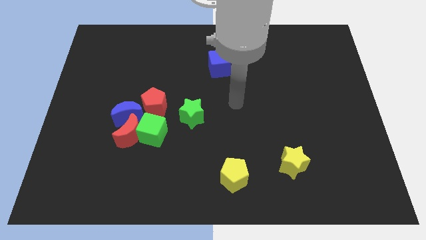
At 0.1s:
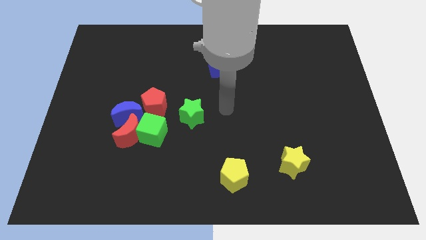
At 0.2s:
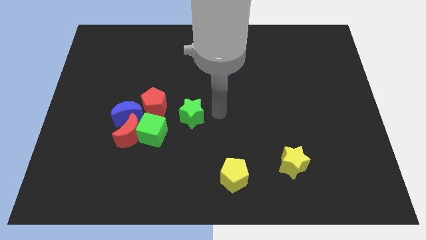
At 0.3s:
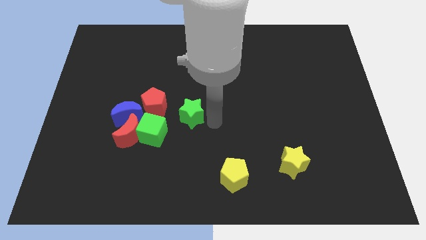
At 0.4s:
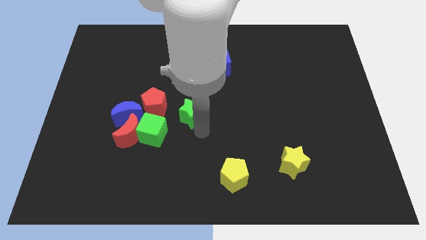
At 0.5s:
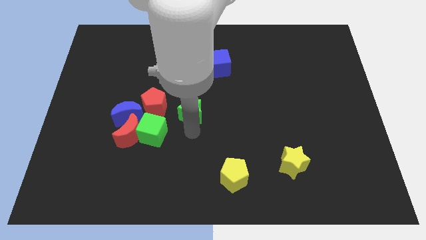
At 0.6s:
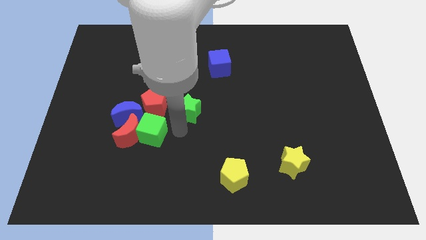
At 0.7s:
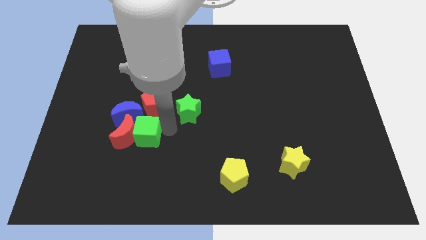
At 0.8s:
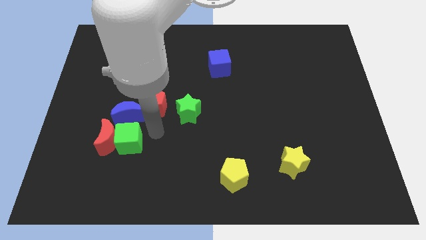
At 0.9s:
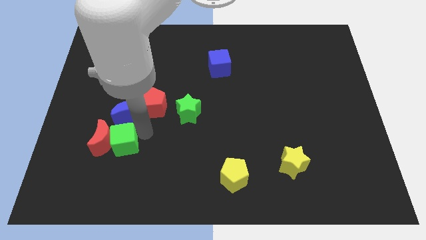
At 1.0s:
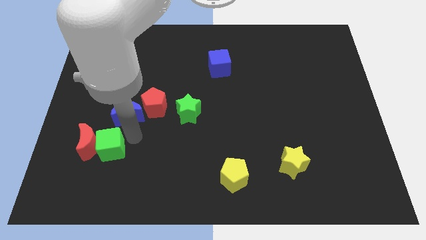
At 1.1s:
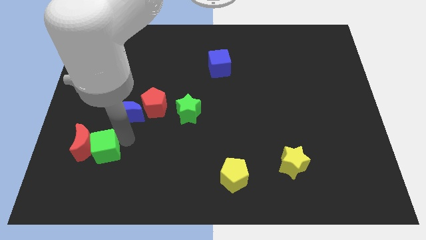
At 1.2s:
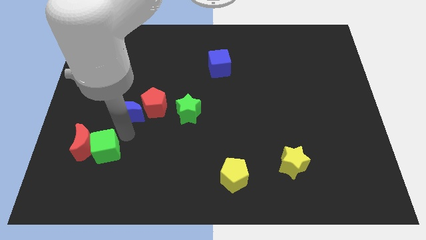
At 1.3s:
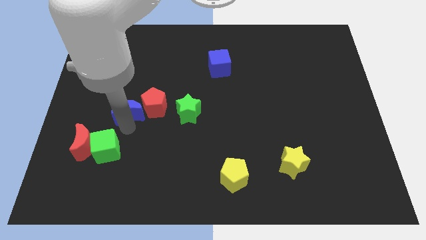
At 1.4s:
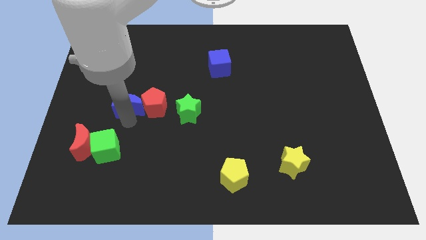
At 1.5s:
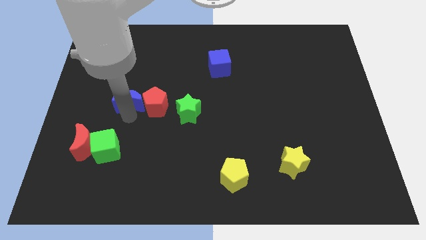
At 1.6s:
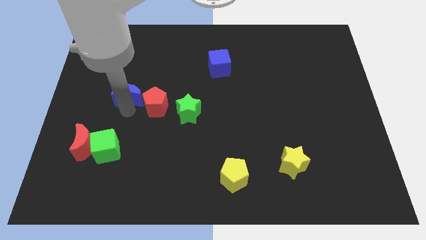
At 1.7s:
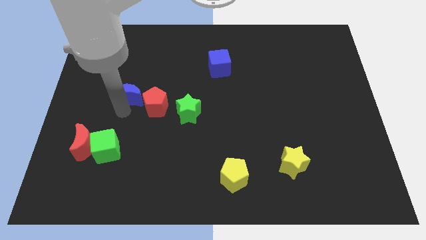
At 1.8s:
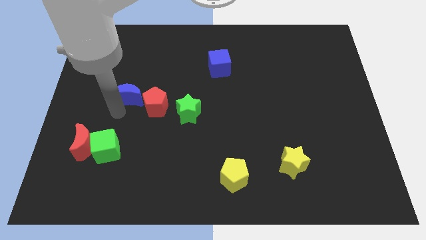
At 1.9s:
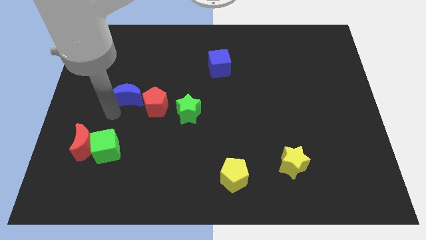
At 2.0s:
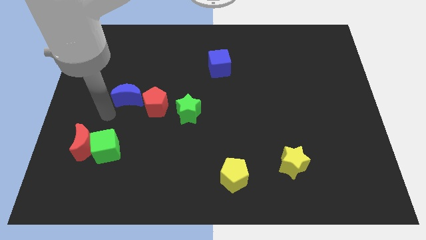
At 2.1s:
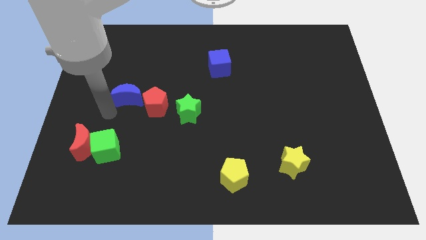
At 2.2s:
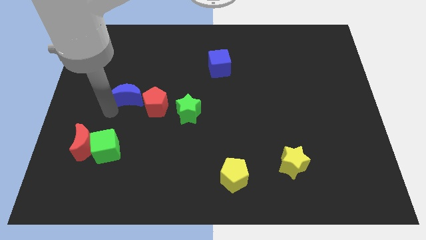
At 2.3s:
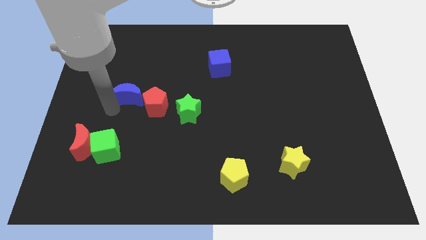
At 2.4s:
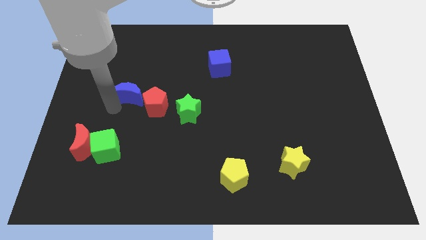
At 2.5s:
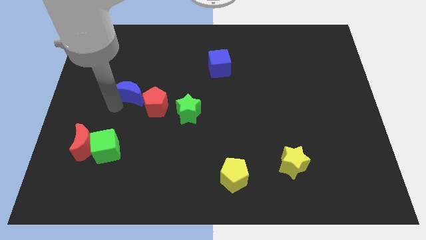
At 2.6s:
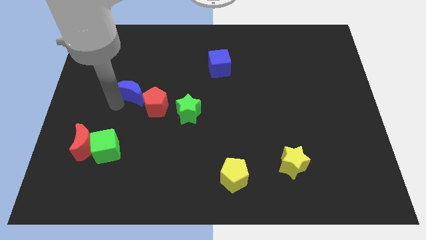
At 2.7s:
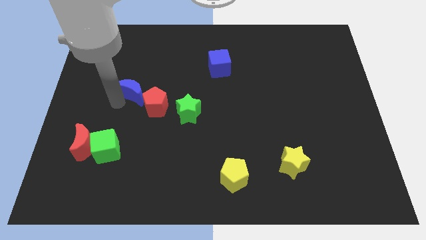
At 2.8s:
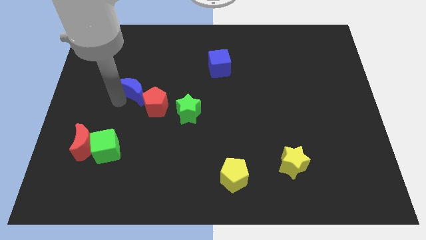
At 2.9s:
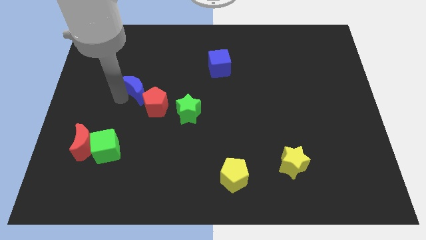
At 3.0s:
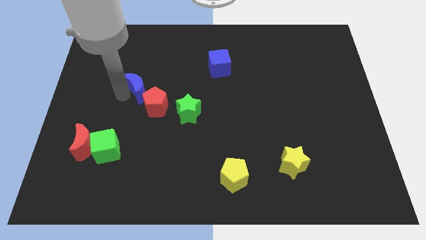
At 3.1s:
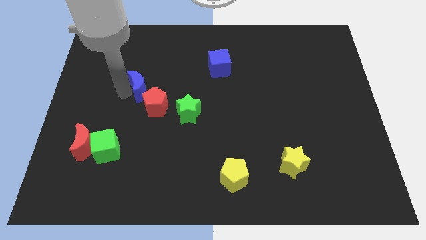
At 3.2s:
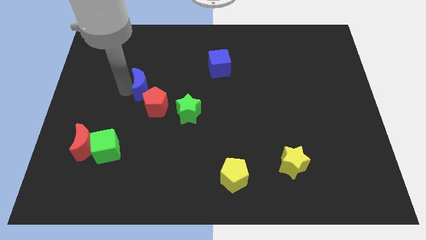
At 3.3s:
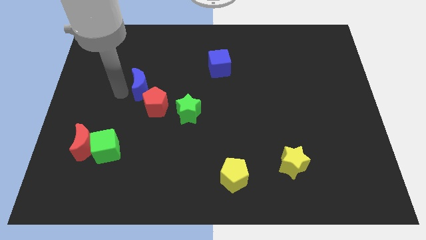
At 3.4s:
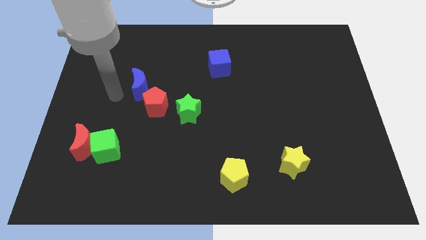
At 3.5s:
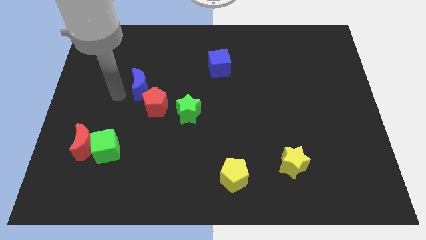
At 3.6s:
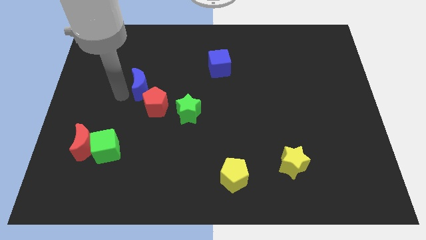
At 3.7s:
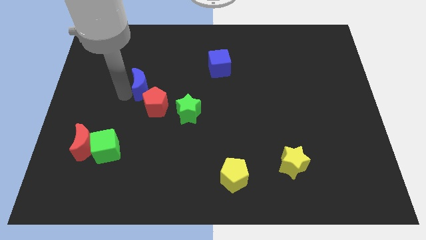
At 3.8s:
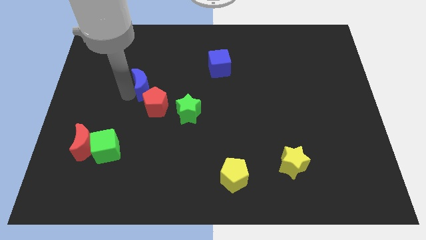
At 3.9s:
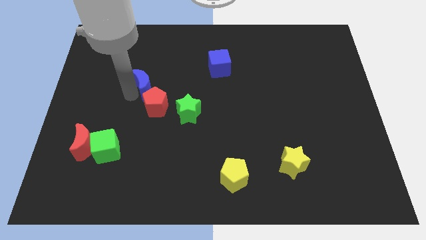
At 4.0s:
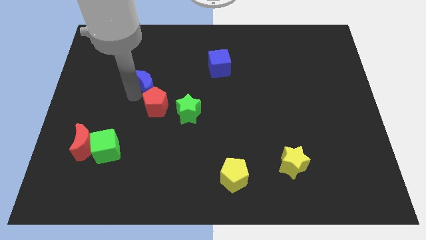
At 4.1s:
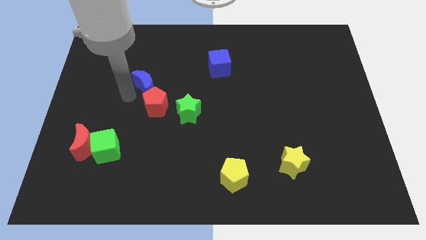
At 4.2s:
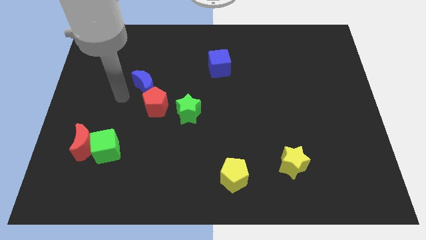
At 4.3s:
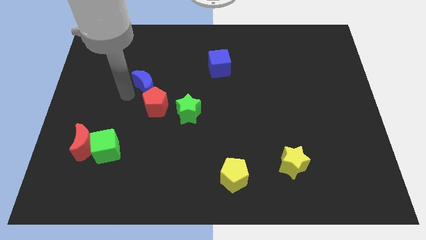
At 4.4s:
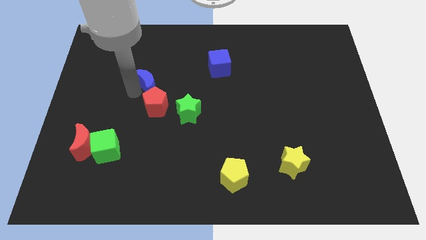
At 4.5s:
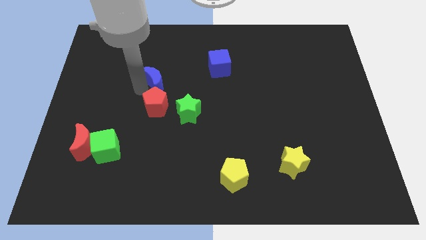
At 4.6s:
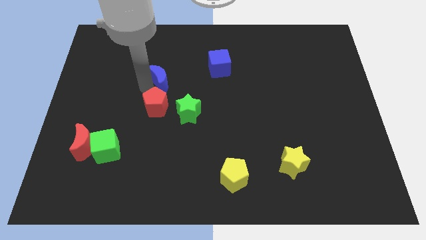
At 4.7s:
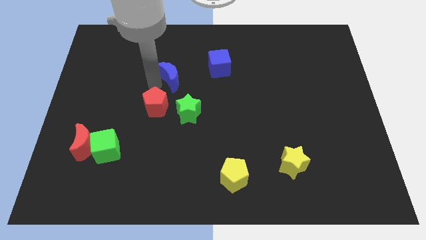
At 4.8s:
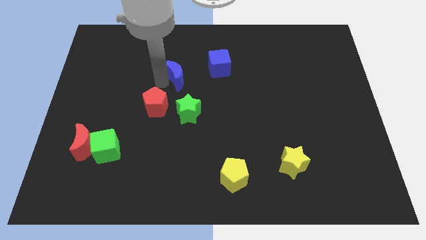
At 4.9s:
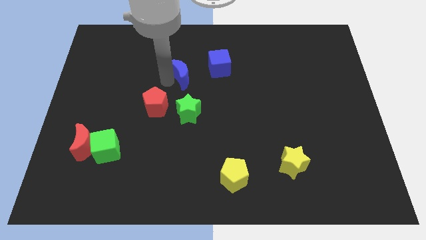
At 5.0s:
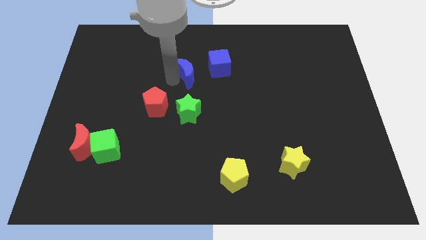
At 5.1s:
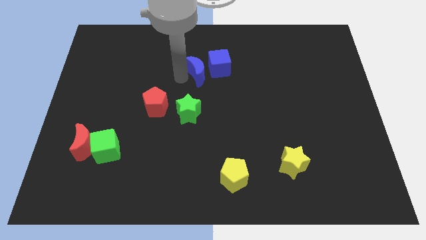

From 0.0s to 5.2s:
put the blue moon to the blue cube

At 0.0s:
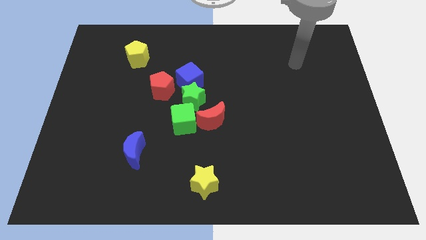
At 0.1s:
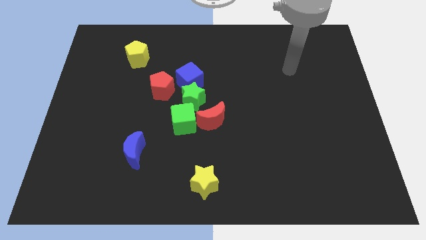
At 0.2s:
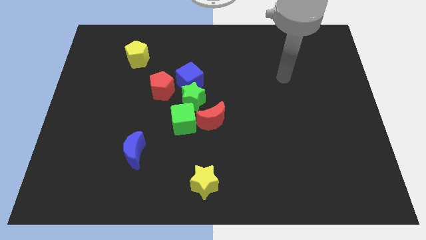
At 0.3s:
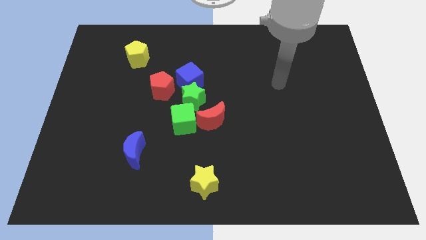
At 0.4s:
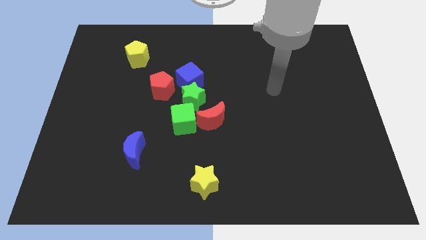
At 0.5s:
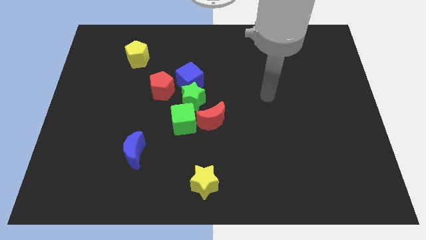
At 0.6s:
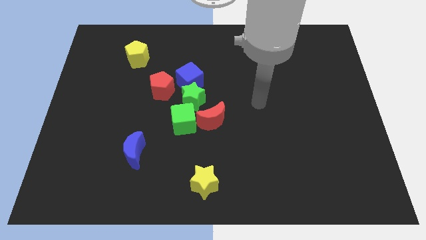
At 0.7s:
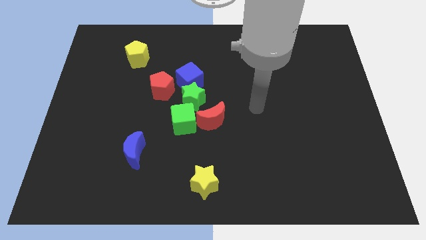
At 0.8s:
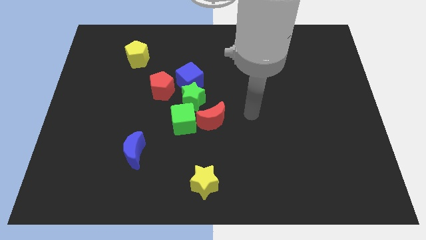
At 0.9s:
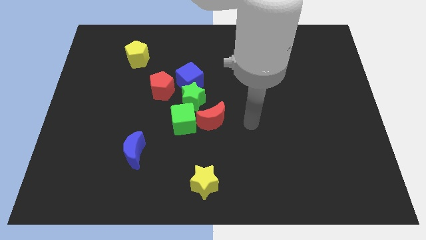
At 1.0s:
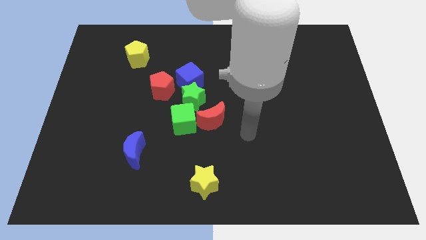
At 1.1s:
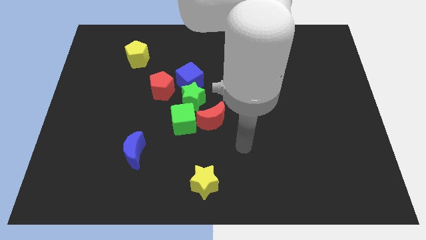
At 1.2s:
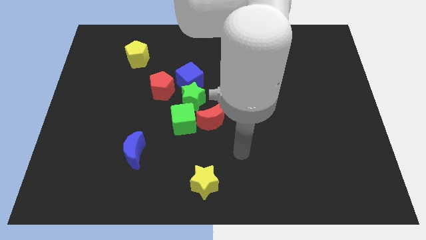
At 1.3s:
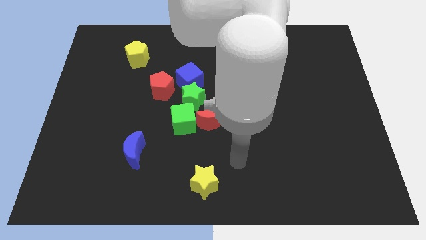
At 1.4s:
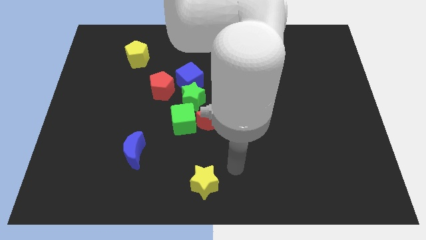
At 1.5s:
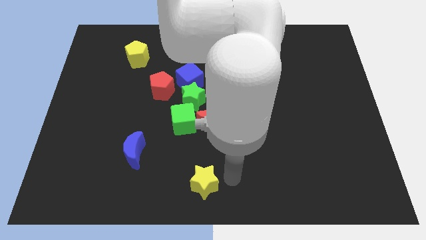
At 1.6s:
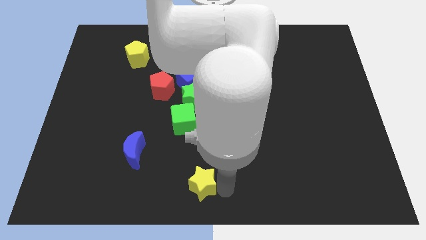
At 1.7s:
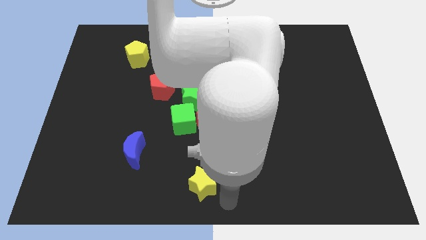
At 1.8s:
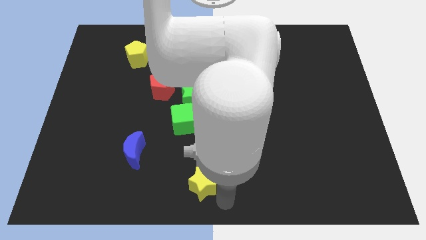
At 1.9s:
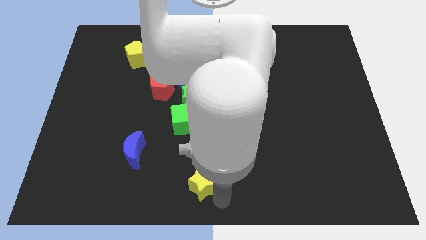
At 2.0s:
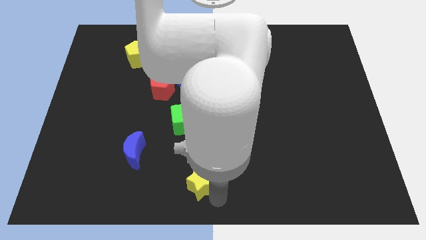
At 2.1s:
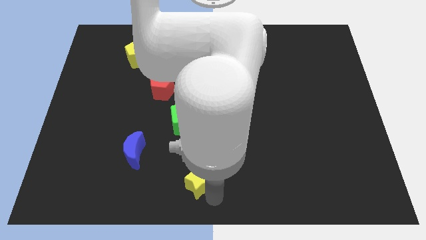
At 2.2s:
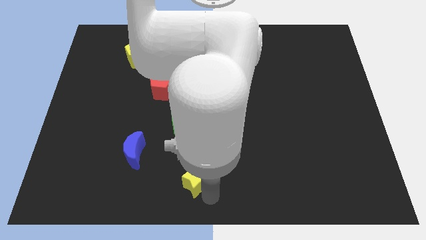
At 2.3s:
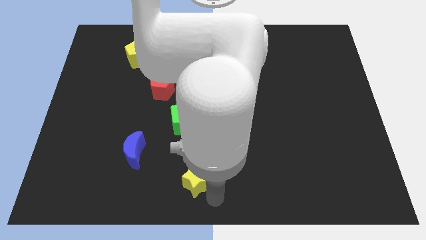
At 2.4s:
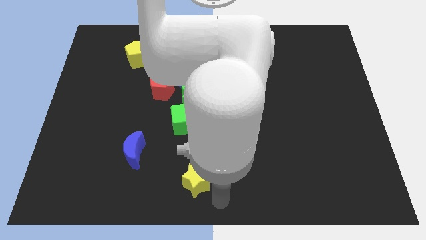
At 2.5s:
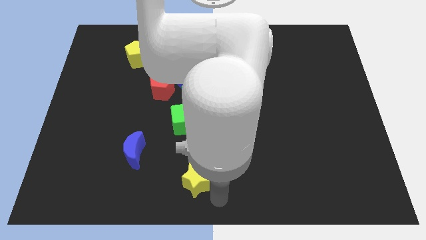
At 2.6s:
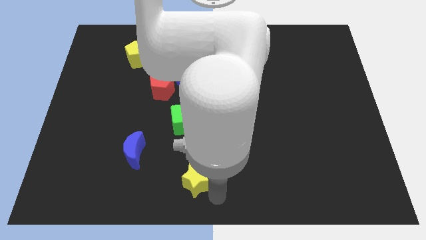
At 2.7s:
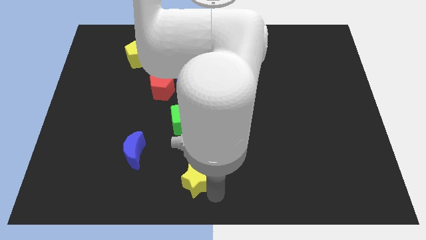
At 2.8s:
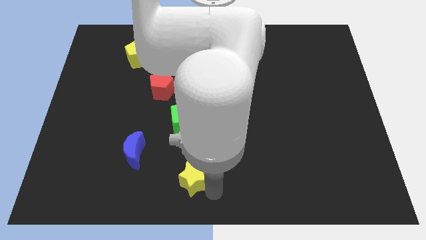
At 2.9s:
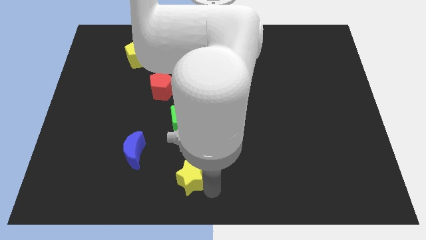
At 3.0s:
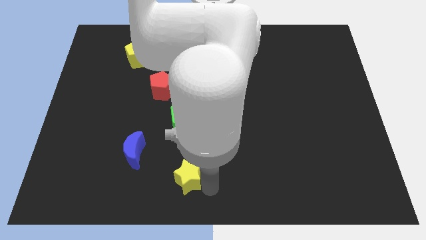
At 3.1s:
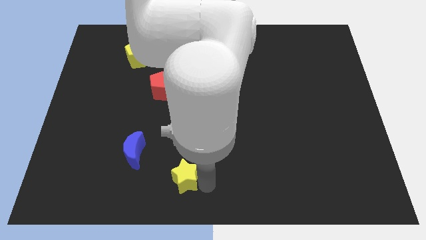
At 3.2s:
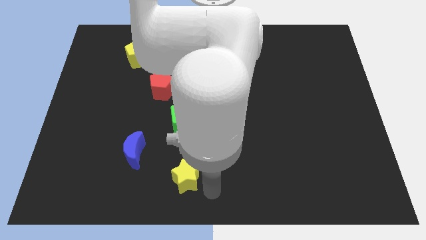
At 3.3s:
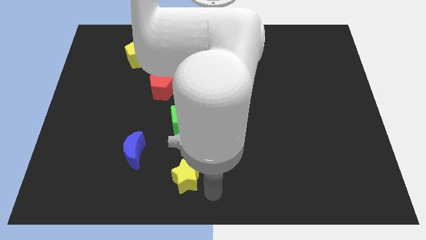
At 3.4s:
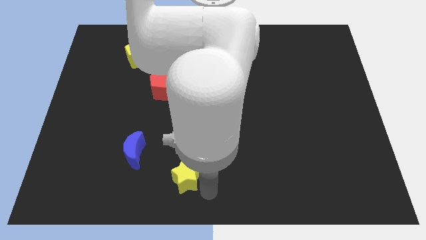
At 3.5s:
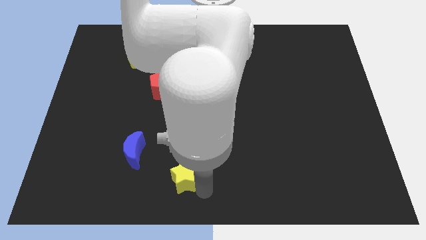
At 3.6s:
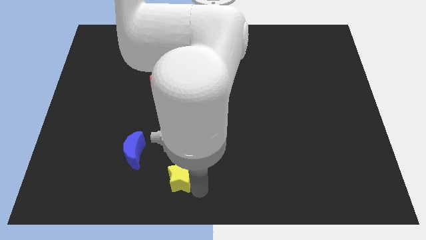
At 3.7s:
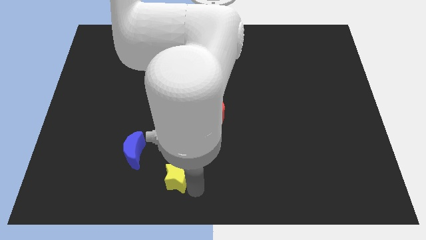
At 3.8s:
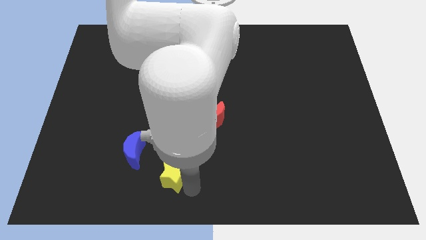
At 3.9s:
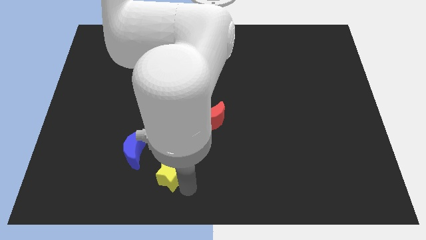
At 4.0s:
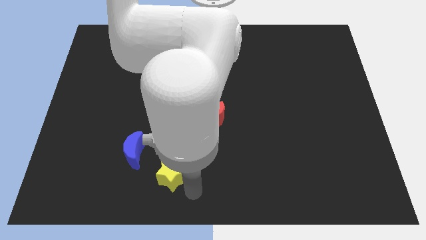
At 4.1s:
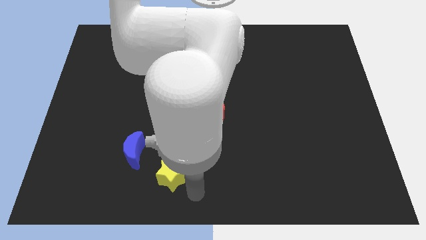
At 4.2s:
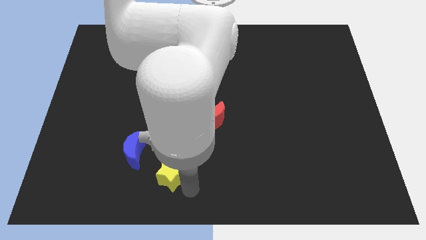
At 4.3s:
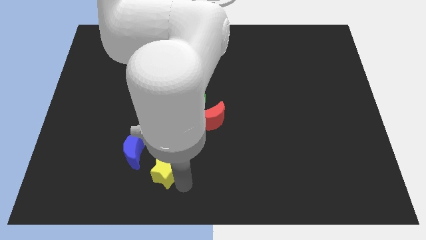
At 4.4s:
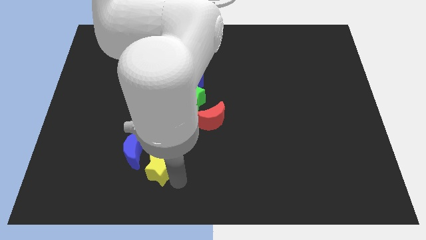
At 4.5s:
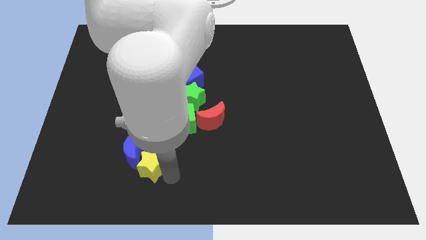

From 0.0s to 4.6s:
slide the yellow star close to the blue moon
